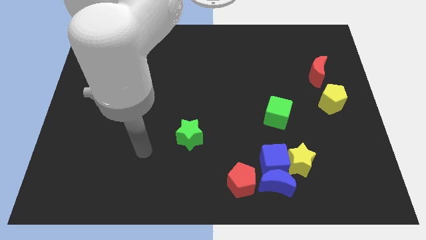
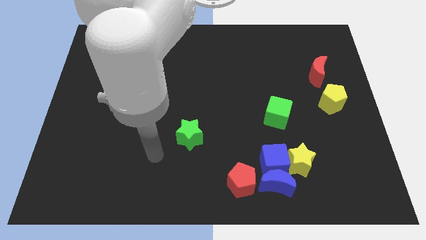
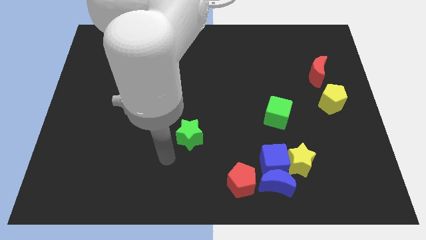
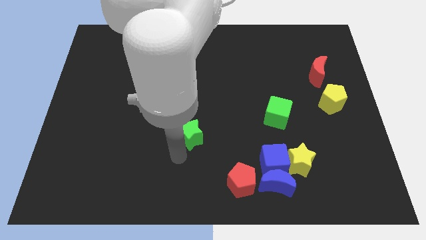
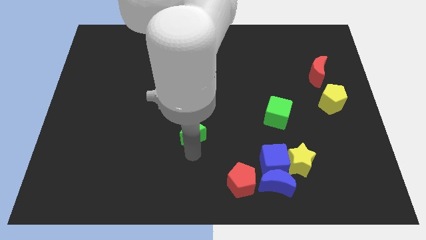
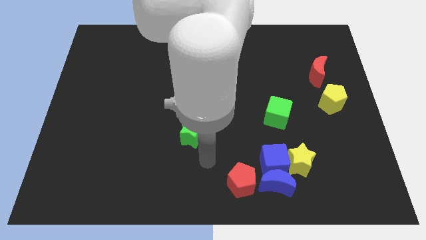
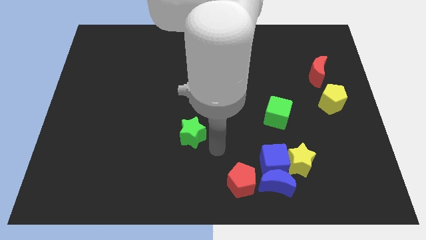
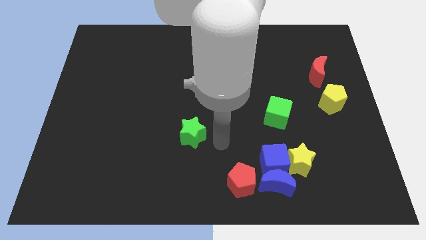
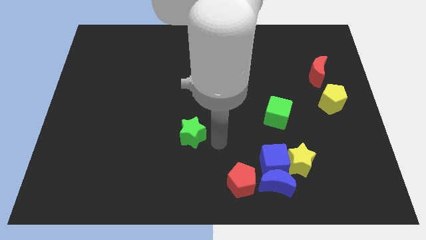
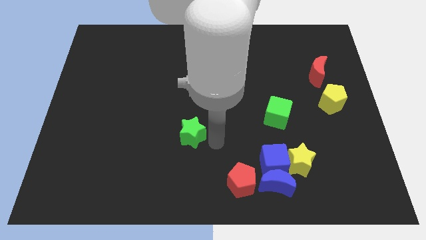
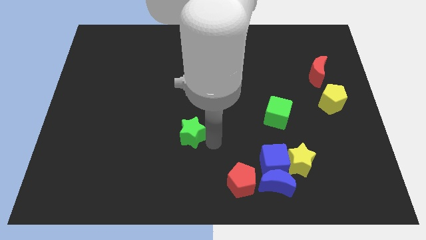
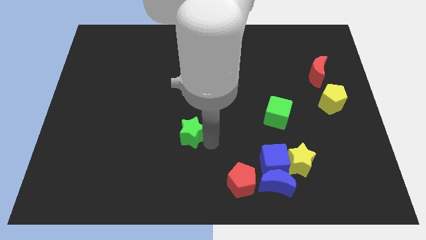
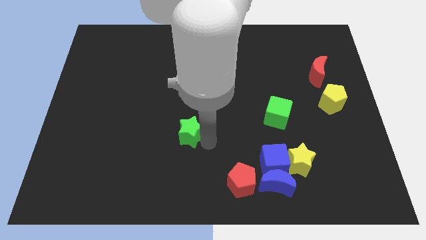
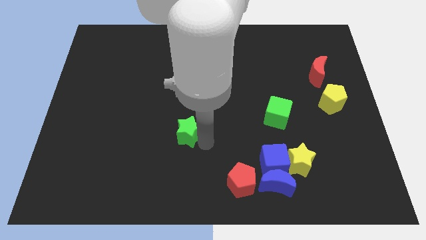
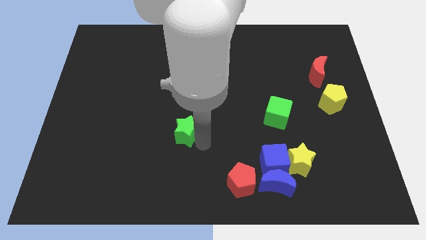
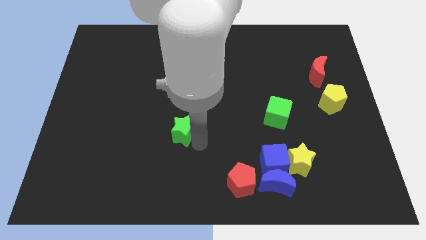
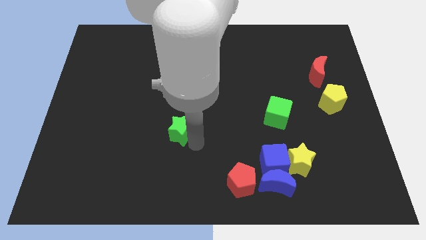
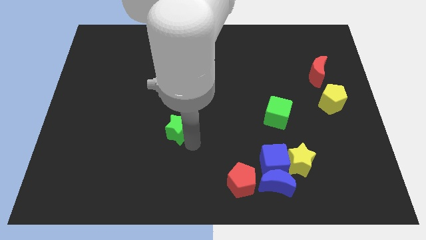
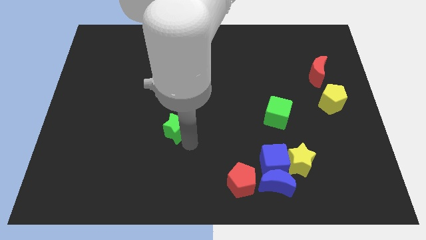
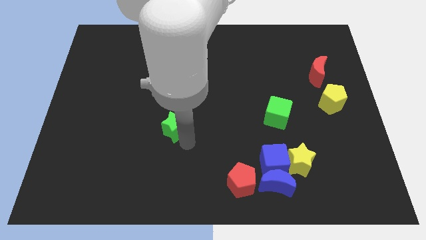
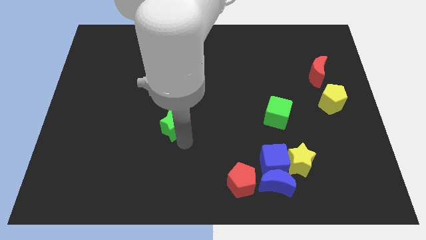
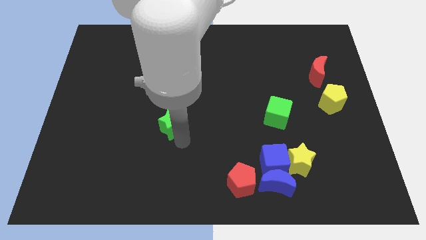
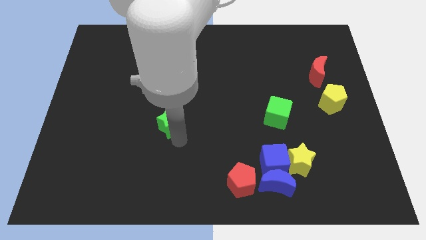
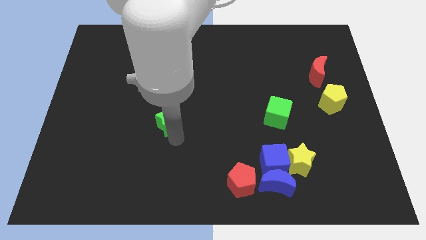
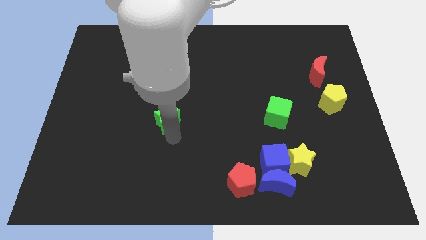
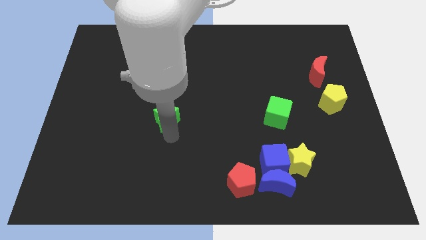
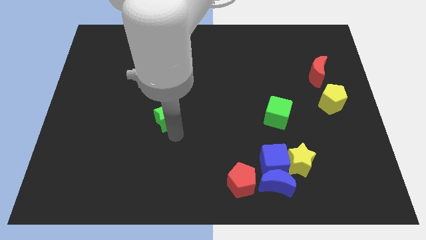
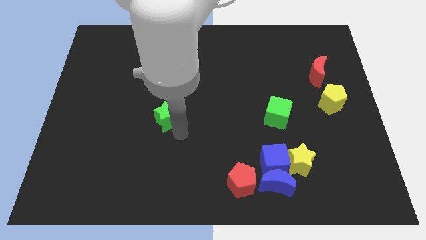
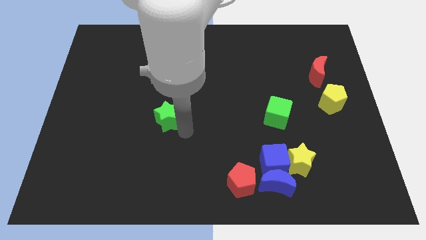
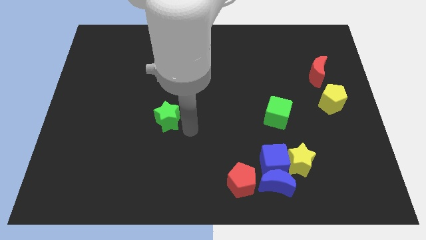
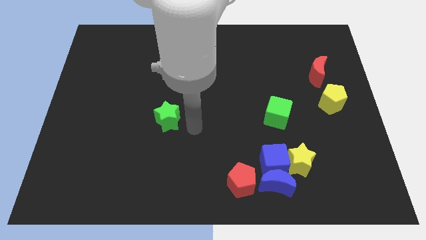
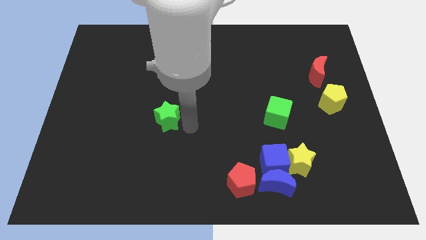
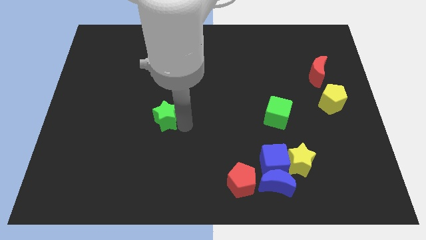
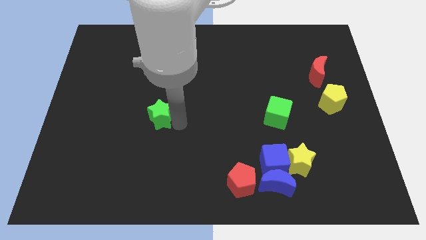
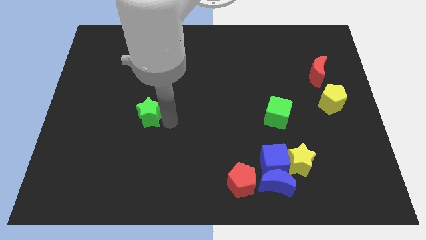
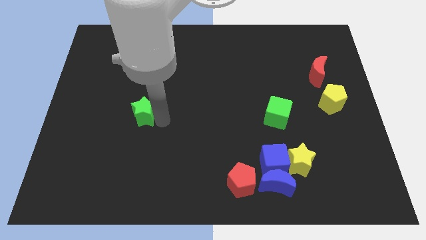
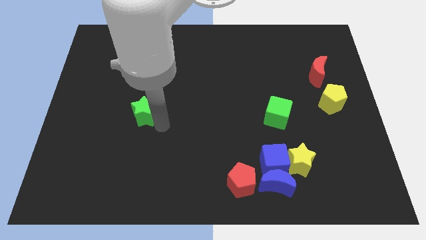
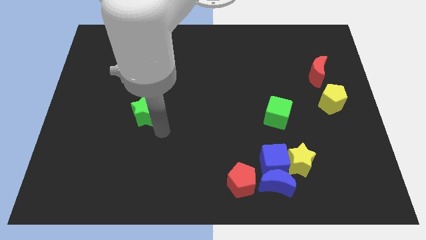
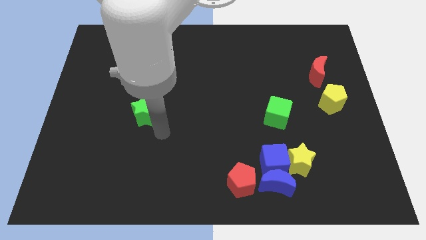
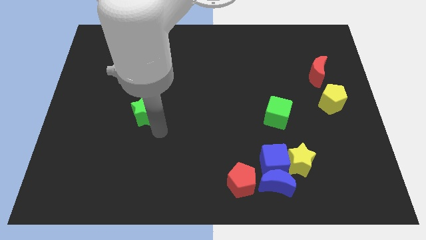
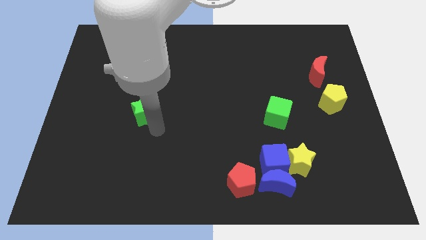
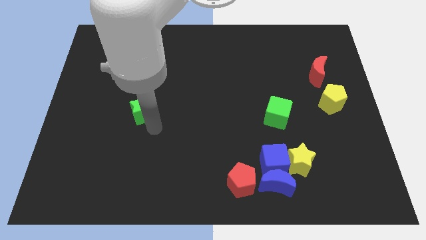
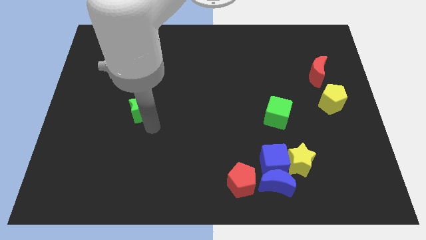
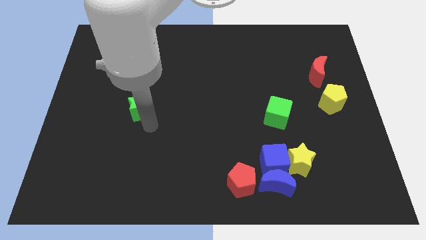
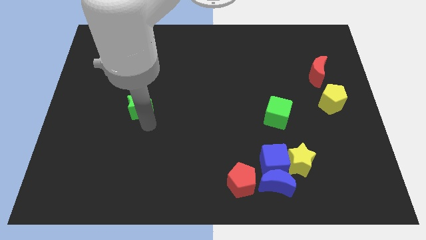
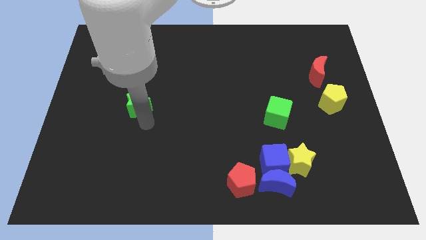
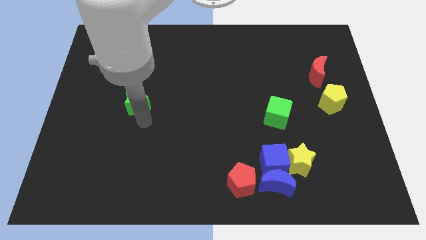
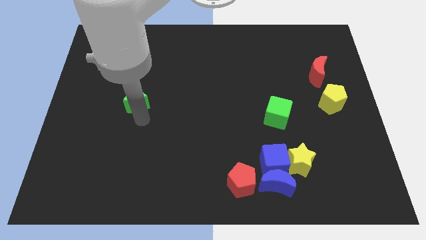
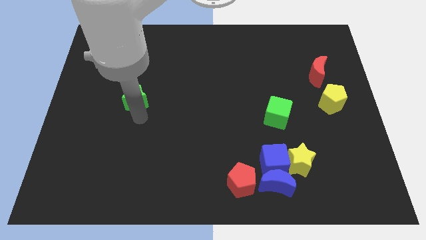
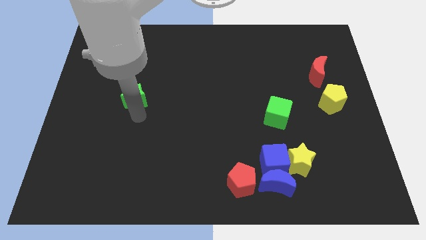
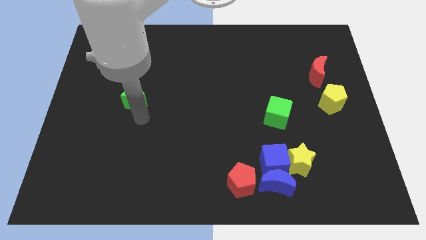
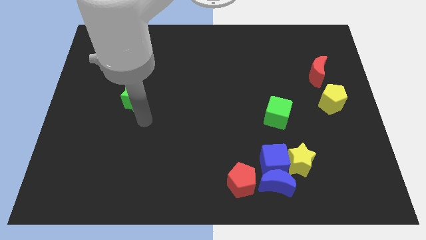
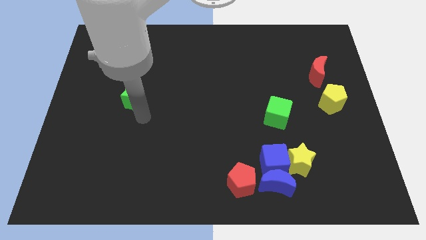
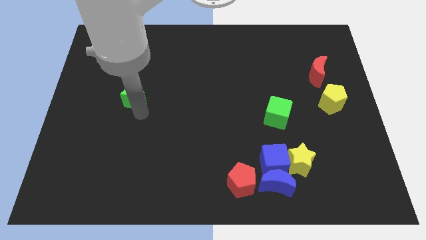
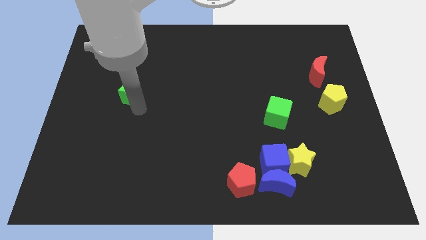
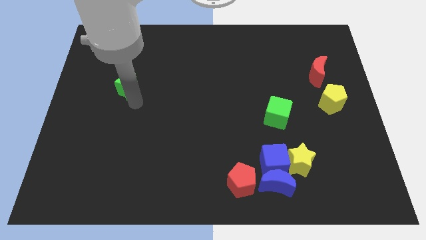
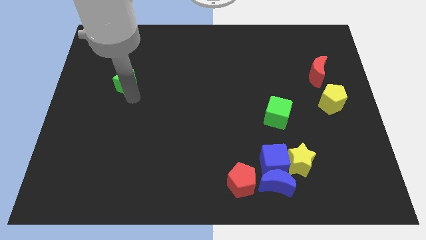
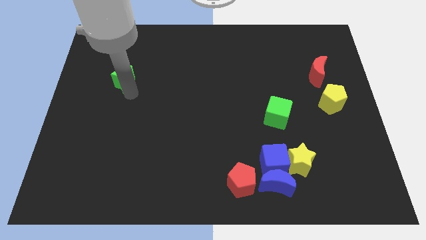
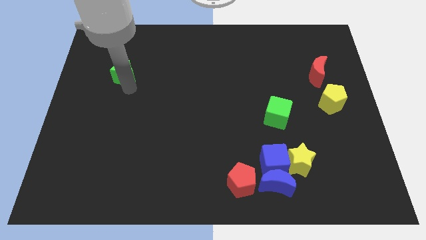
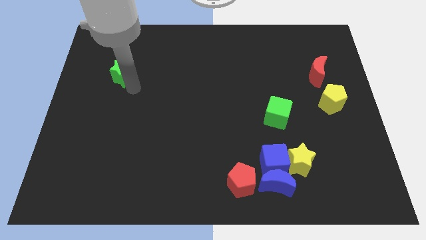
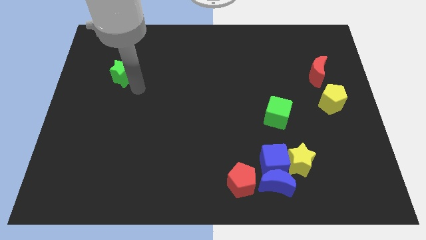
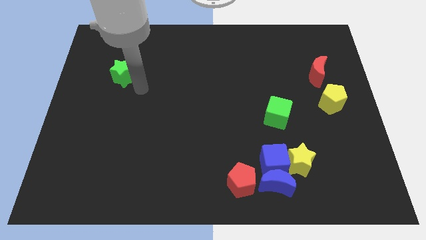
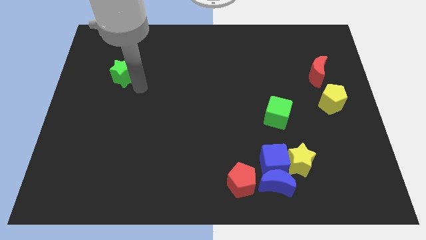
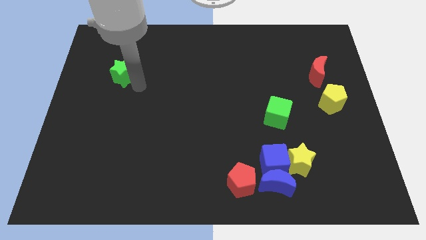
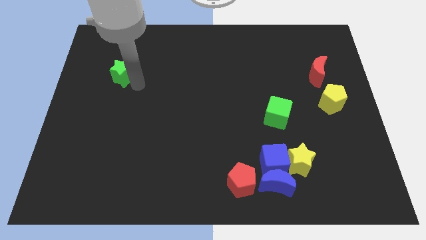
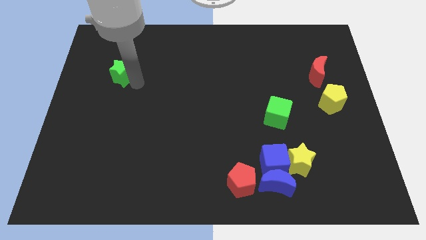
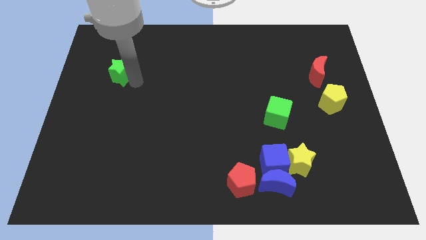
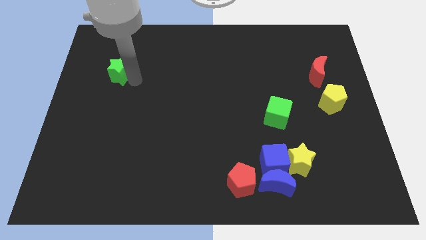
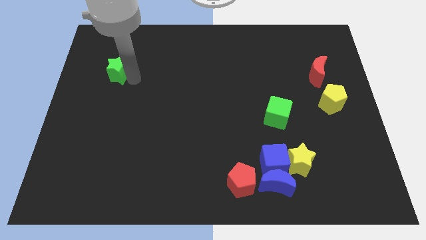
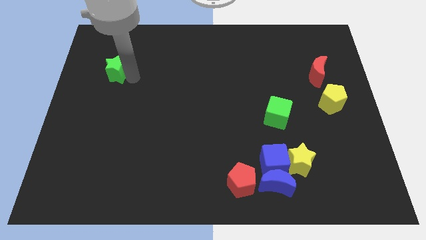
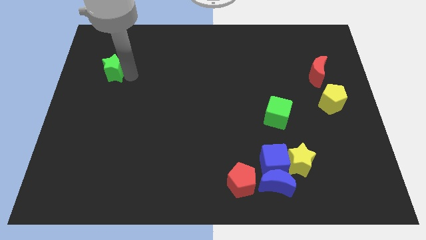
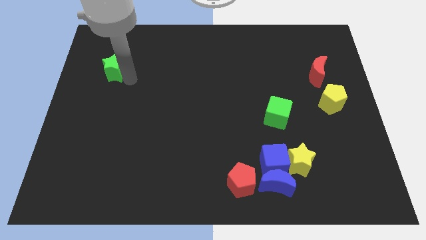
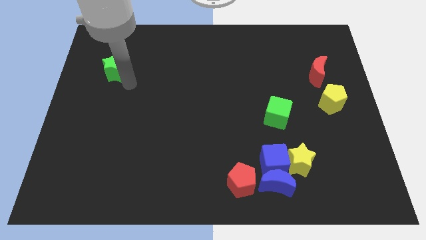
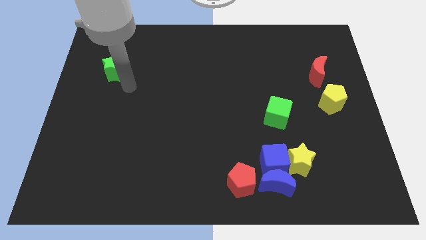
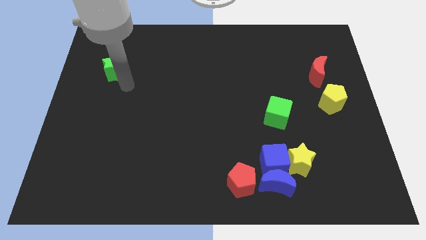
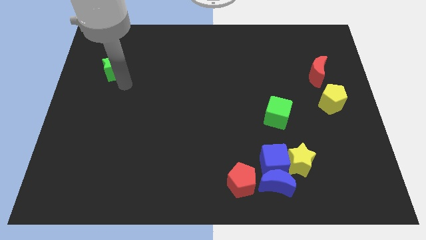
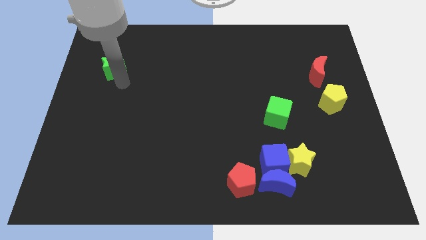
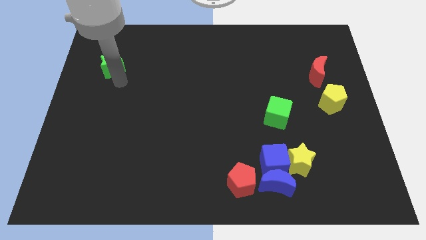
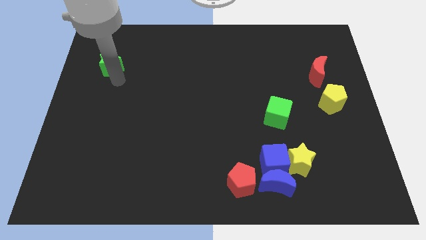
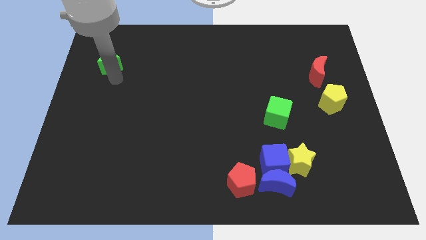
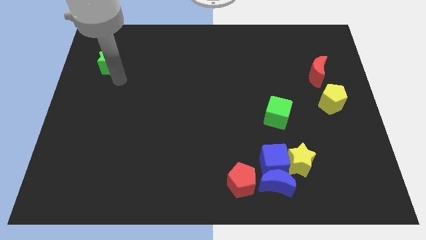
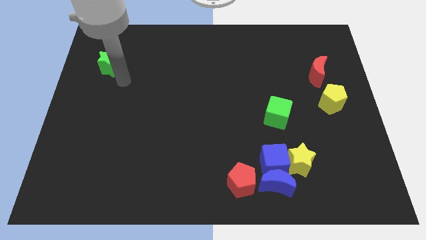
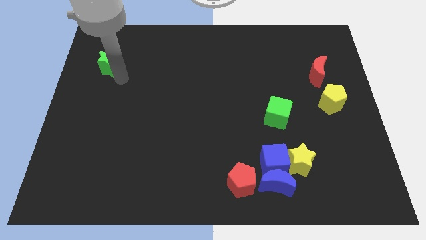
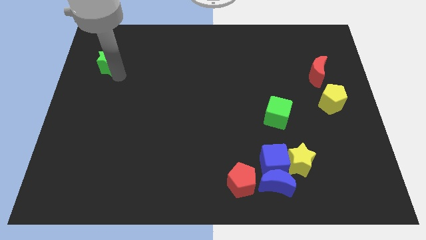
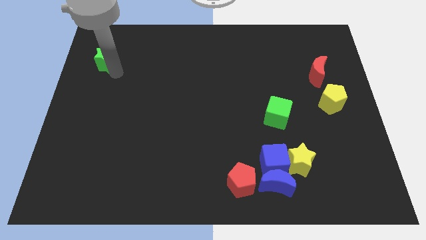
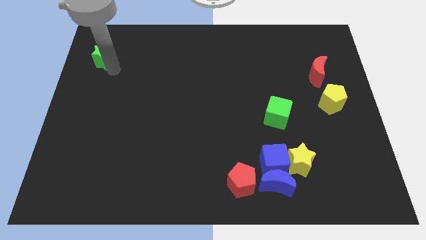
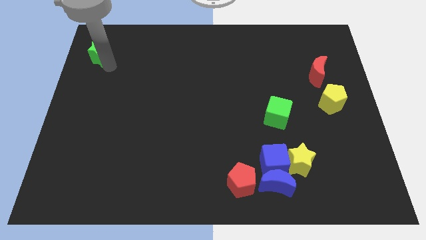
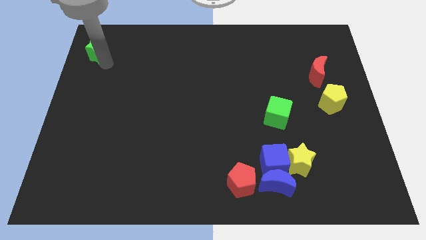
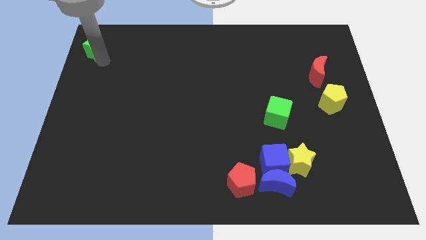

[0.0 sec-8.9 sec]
slide the green star to the top left corner
